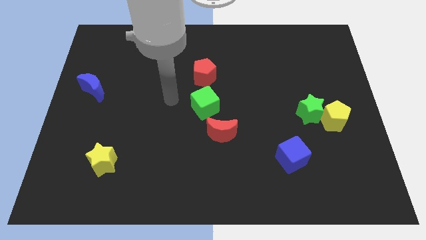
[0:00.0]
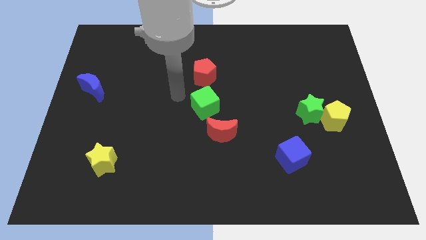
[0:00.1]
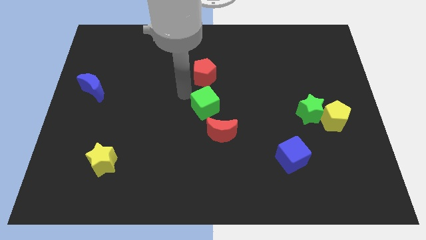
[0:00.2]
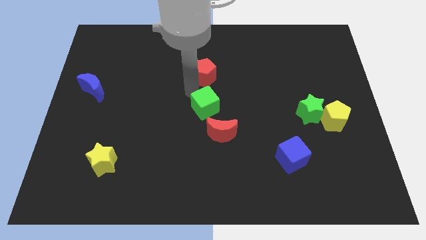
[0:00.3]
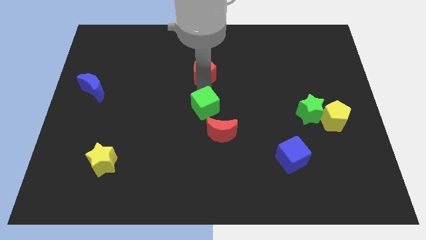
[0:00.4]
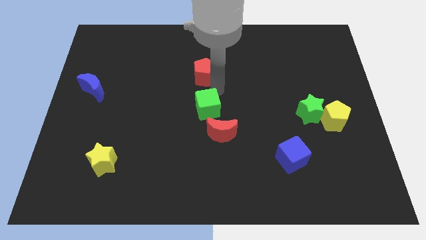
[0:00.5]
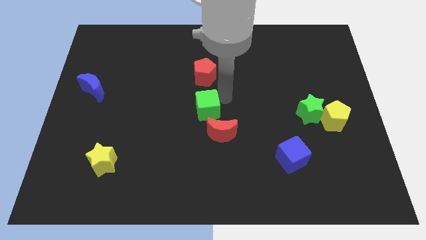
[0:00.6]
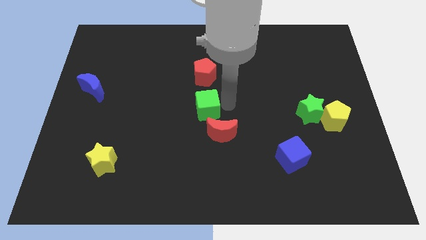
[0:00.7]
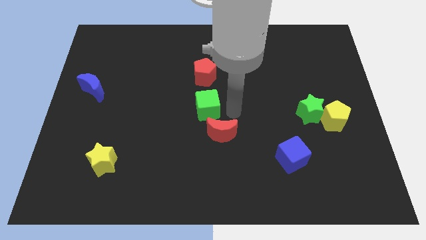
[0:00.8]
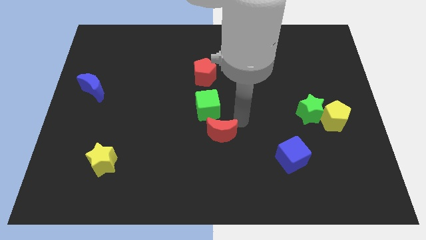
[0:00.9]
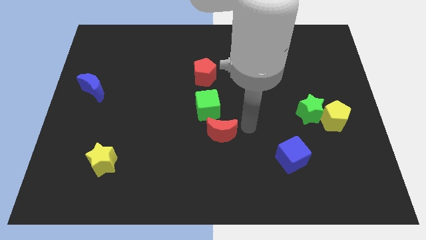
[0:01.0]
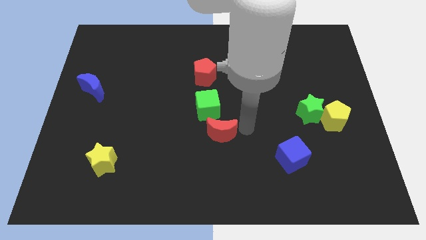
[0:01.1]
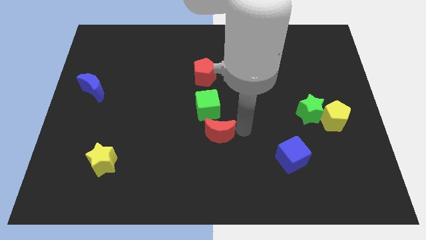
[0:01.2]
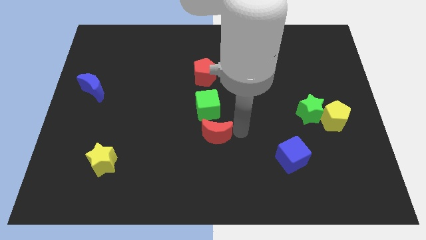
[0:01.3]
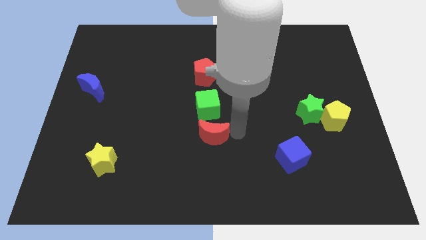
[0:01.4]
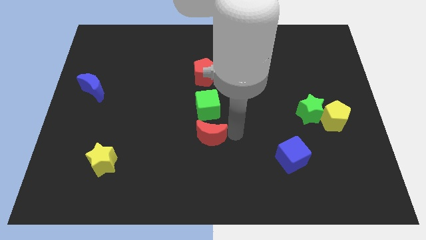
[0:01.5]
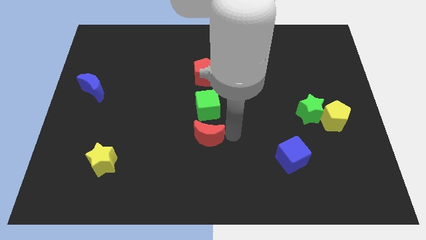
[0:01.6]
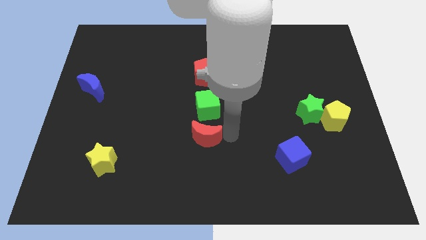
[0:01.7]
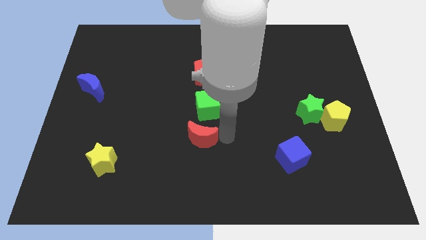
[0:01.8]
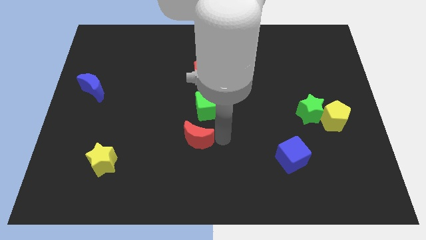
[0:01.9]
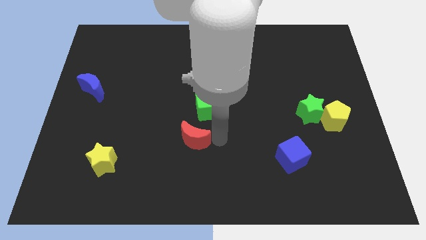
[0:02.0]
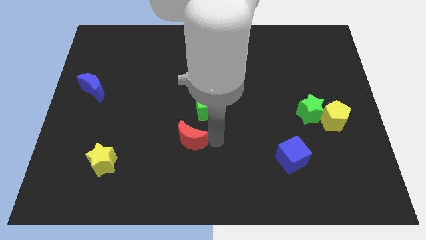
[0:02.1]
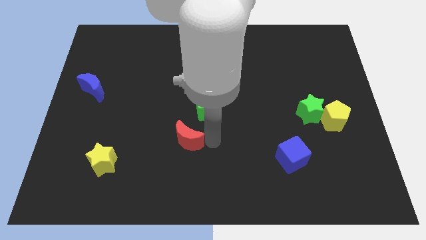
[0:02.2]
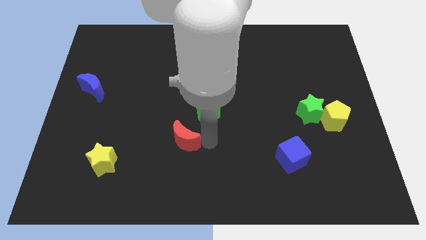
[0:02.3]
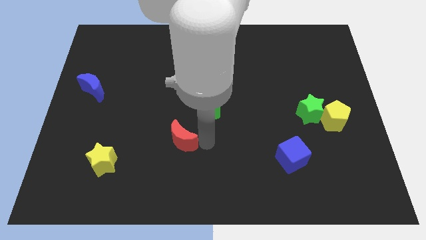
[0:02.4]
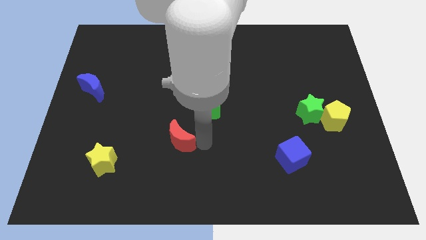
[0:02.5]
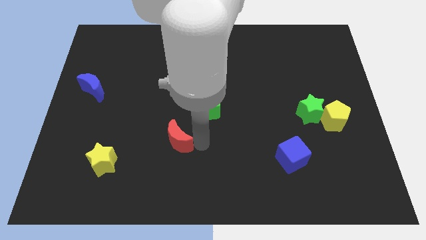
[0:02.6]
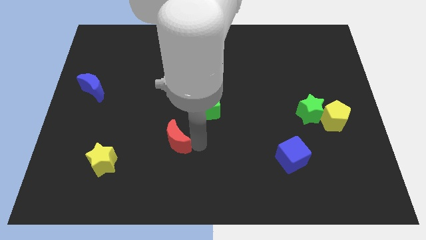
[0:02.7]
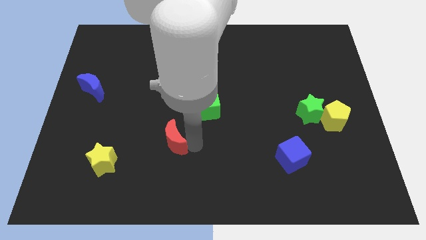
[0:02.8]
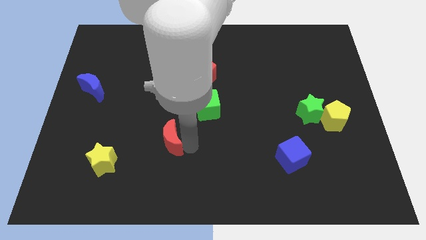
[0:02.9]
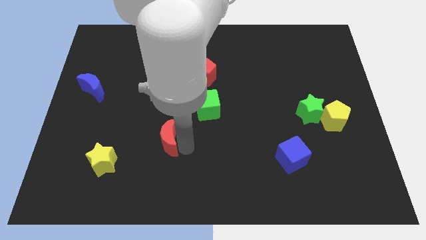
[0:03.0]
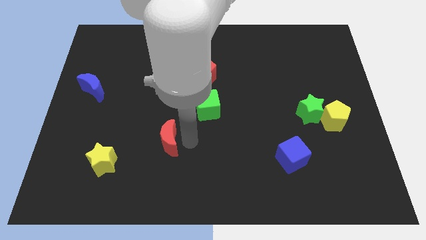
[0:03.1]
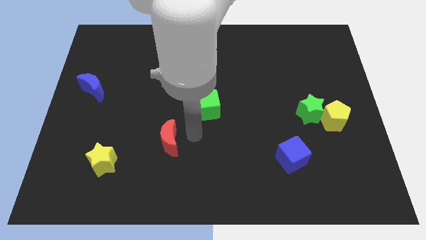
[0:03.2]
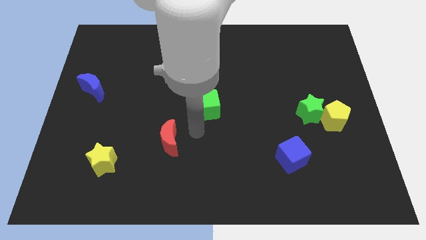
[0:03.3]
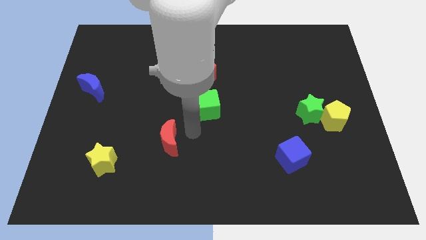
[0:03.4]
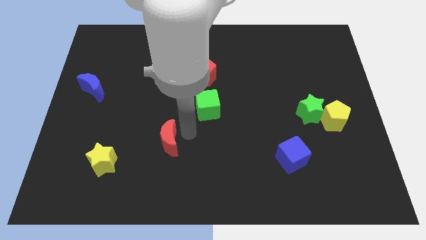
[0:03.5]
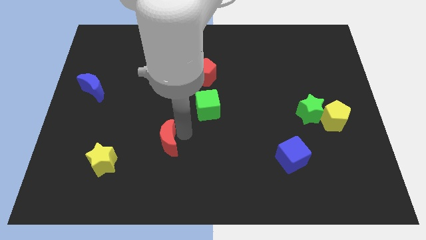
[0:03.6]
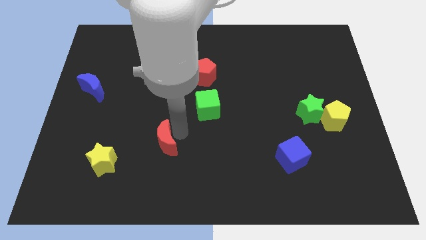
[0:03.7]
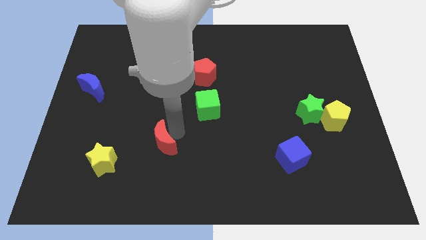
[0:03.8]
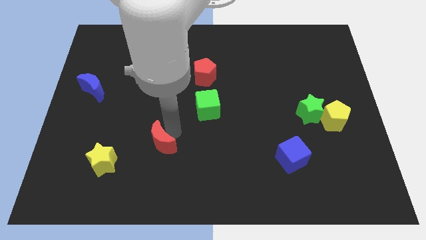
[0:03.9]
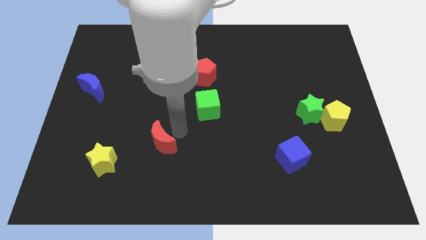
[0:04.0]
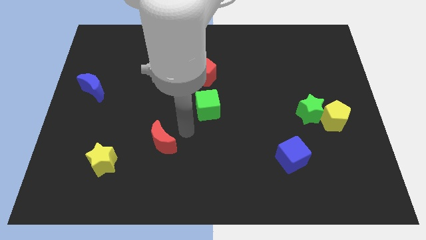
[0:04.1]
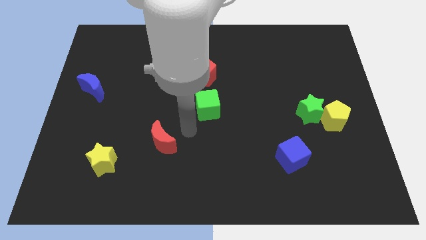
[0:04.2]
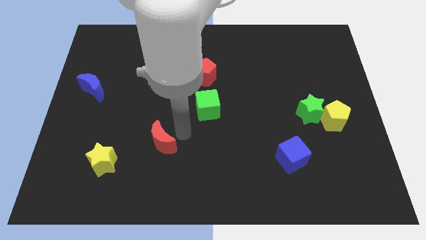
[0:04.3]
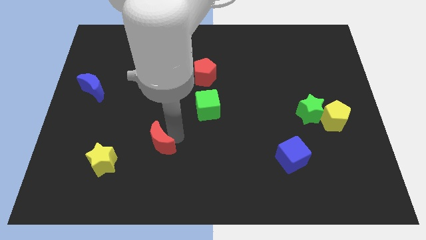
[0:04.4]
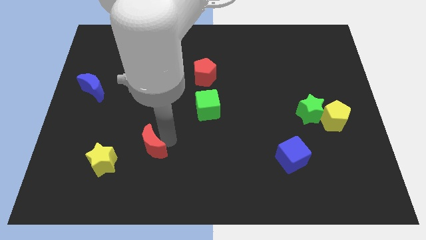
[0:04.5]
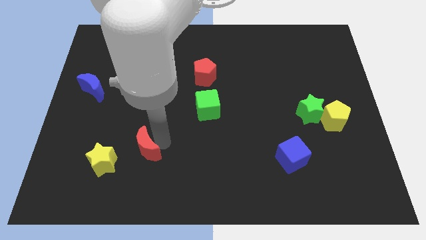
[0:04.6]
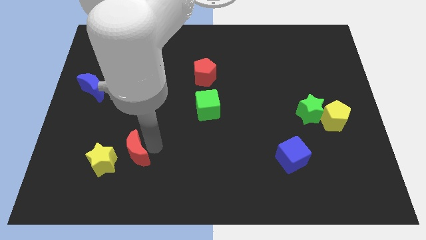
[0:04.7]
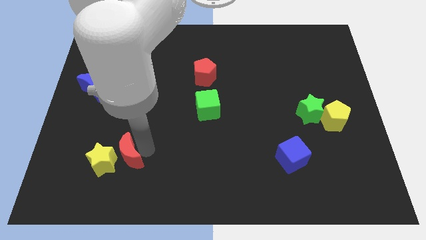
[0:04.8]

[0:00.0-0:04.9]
push the red moon next to the yellow star

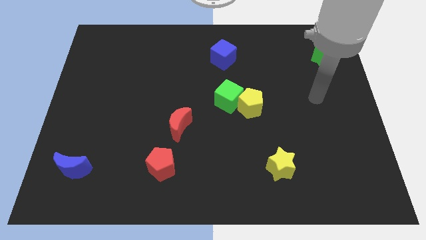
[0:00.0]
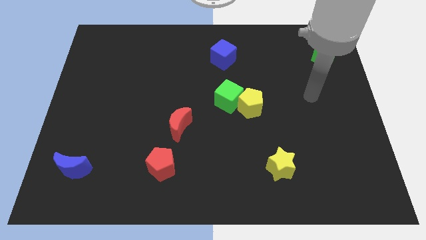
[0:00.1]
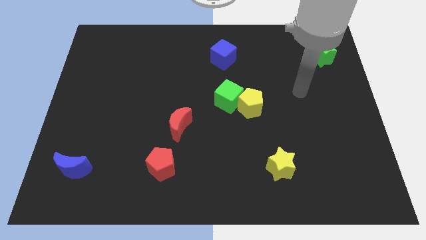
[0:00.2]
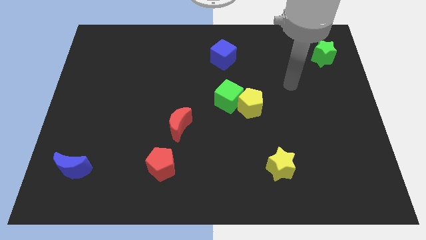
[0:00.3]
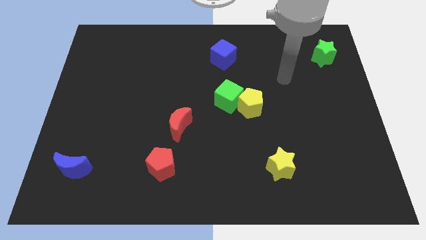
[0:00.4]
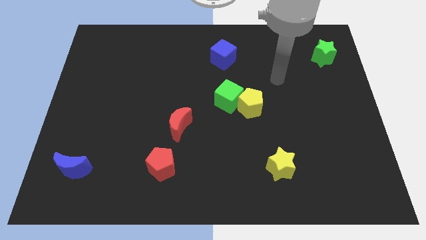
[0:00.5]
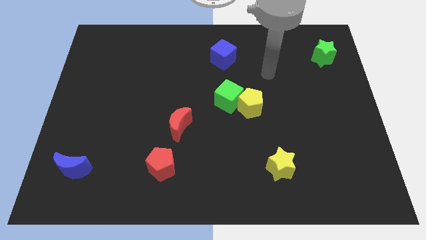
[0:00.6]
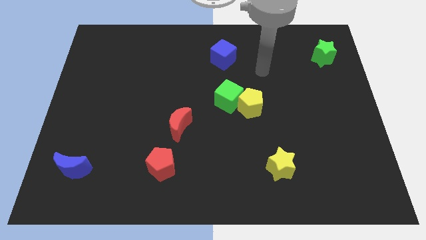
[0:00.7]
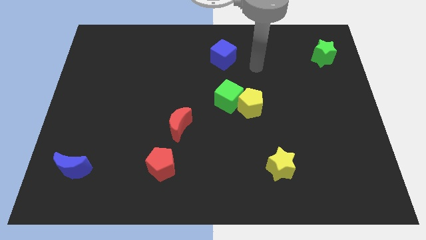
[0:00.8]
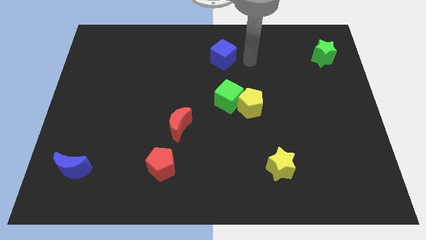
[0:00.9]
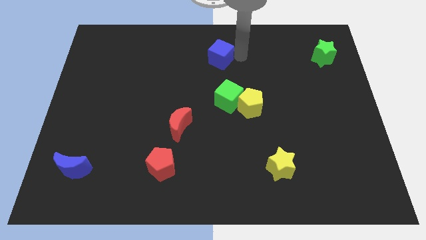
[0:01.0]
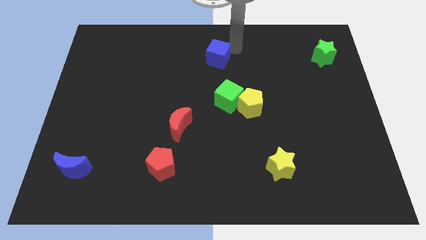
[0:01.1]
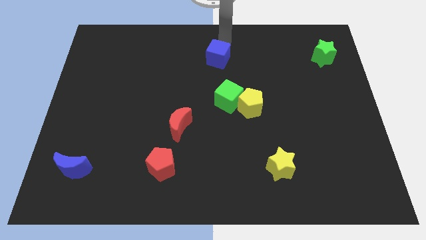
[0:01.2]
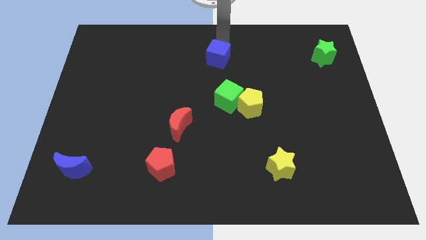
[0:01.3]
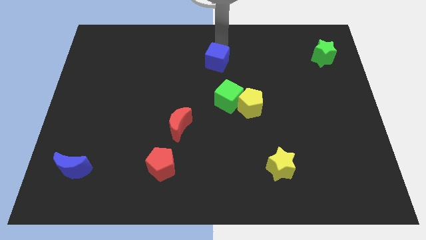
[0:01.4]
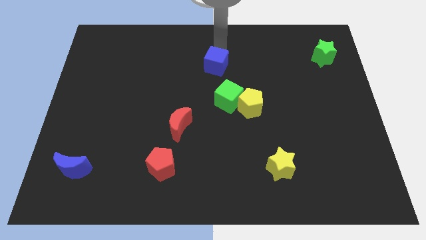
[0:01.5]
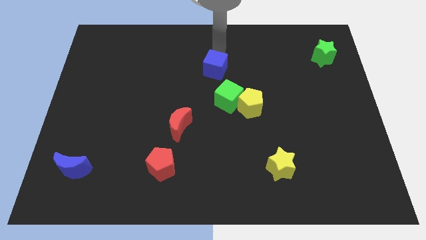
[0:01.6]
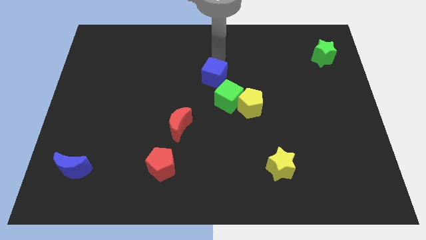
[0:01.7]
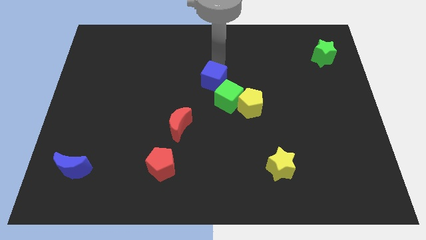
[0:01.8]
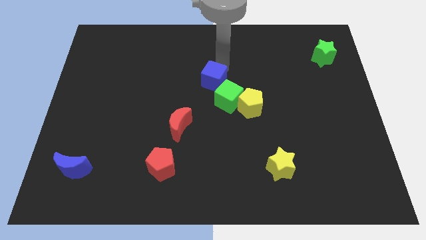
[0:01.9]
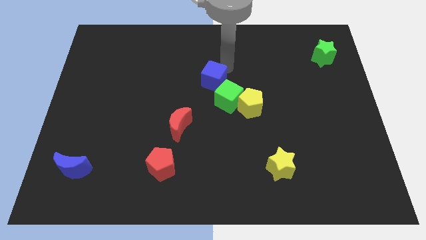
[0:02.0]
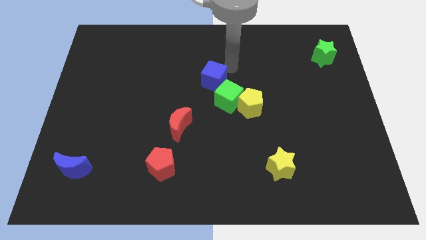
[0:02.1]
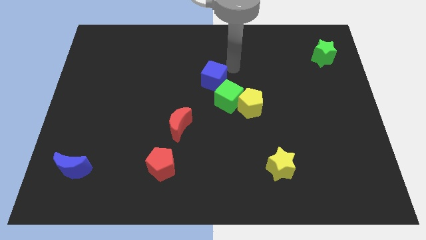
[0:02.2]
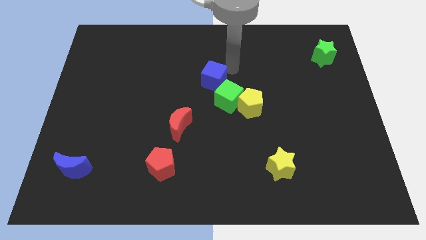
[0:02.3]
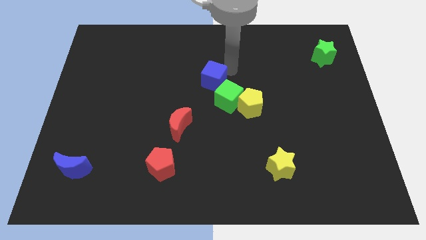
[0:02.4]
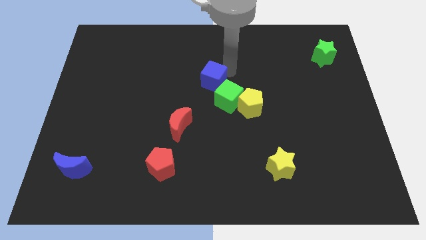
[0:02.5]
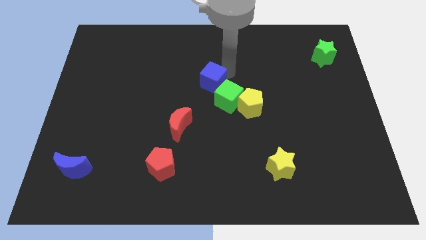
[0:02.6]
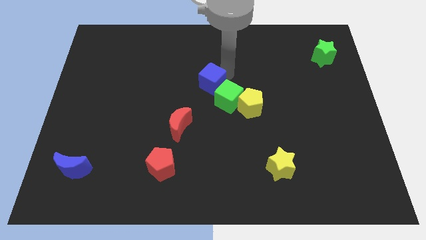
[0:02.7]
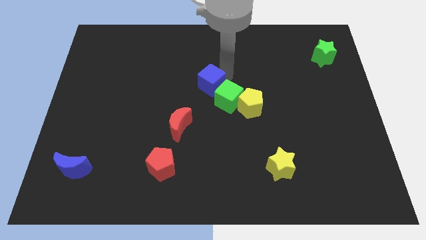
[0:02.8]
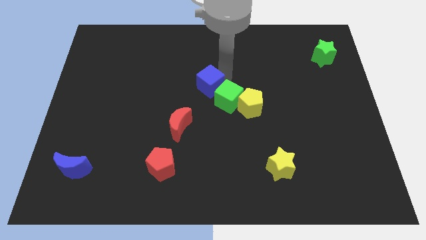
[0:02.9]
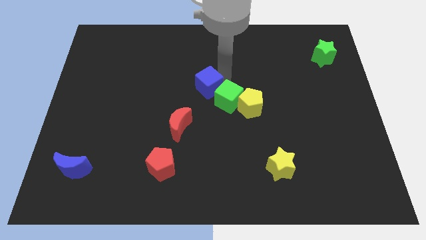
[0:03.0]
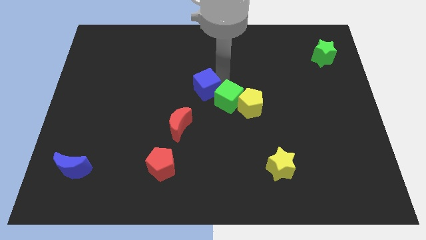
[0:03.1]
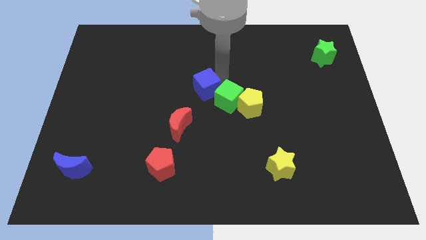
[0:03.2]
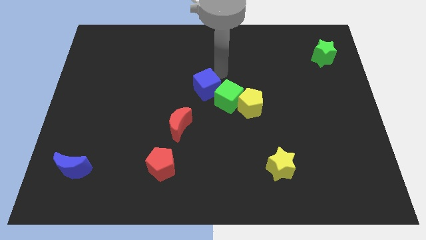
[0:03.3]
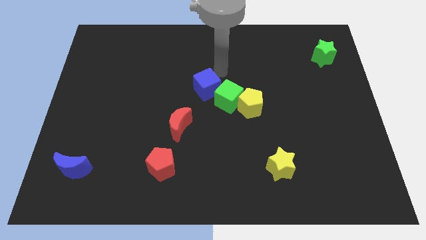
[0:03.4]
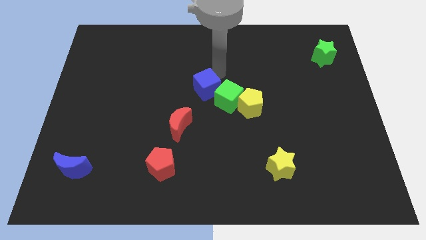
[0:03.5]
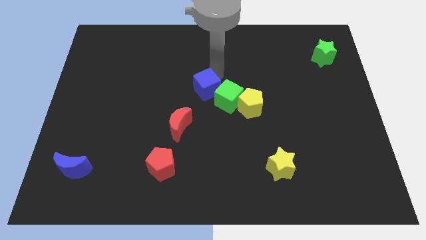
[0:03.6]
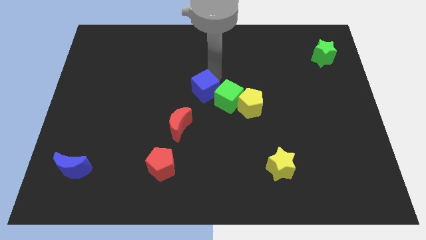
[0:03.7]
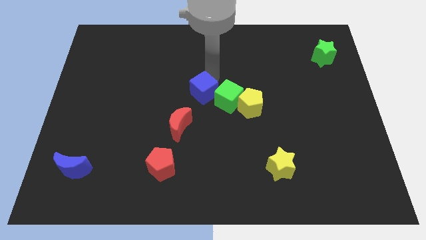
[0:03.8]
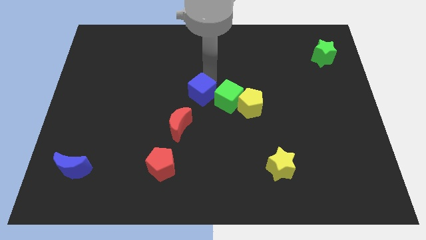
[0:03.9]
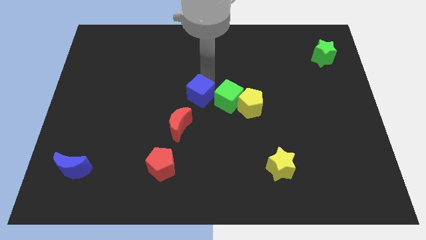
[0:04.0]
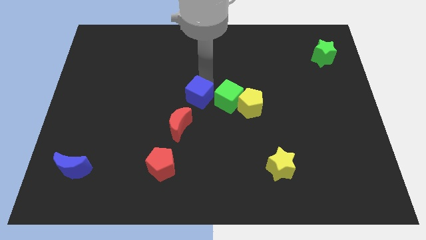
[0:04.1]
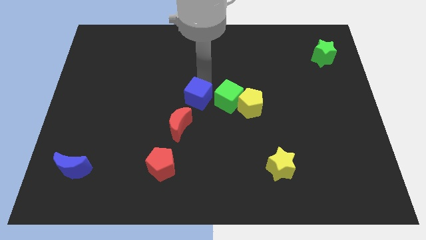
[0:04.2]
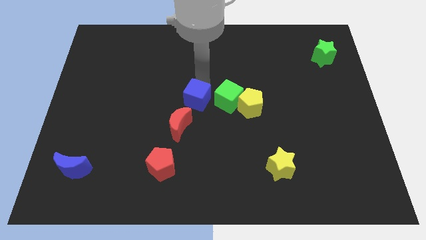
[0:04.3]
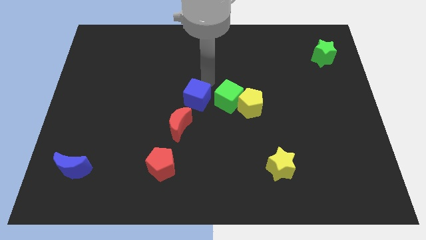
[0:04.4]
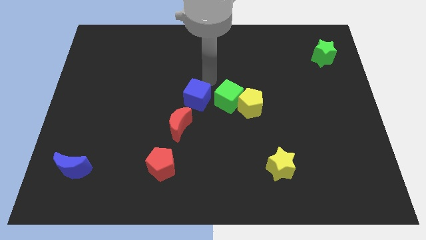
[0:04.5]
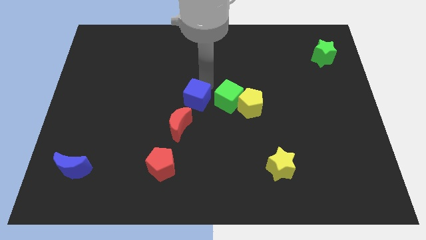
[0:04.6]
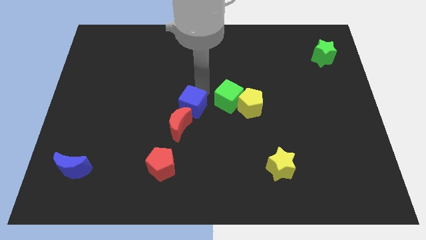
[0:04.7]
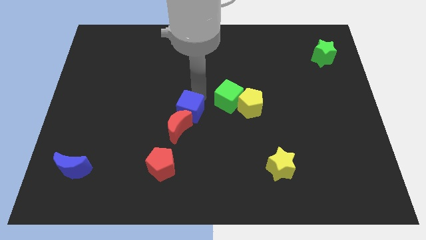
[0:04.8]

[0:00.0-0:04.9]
move the blue cube close to the red moon
